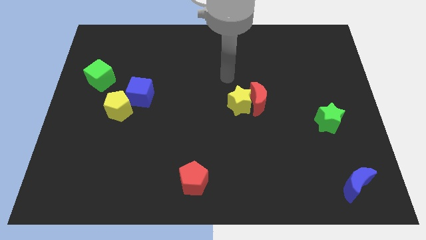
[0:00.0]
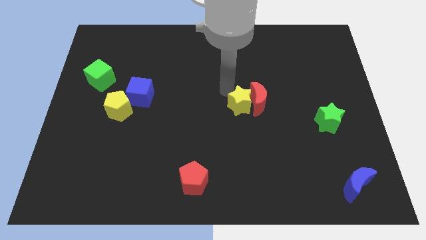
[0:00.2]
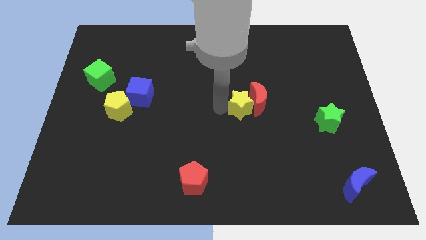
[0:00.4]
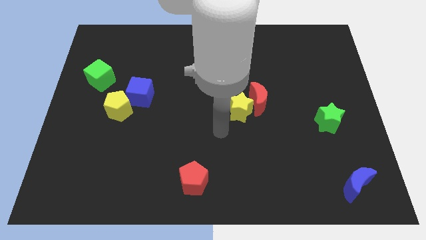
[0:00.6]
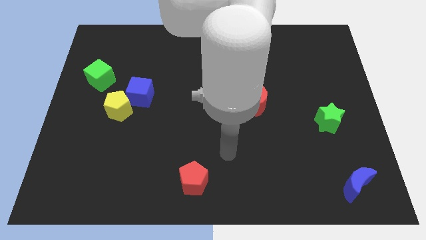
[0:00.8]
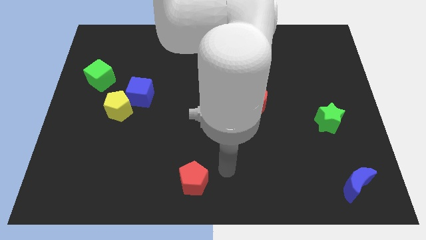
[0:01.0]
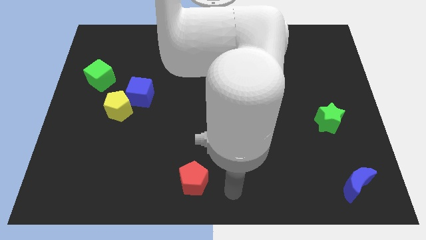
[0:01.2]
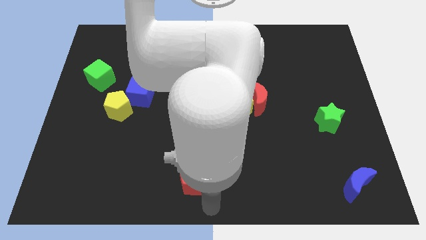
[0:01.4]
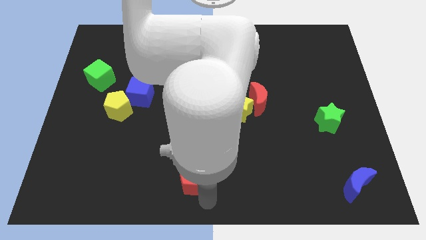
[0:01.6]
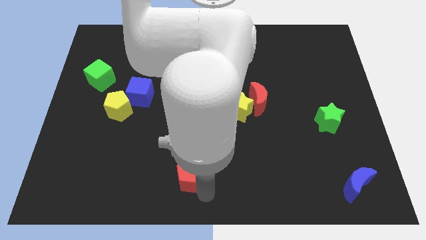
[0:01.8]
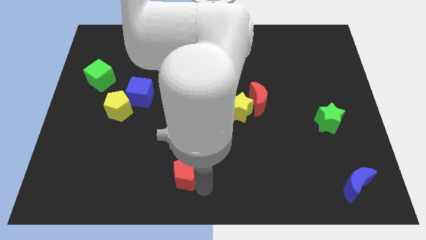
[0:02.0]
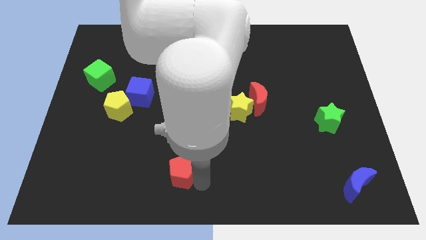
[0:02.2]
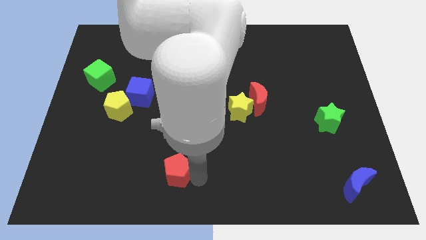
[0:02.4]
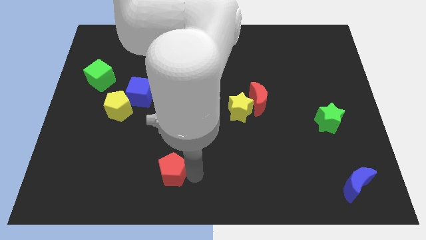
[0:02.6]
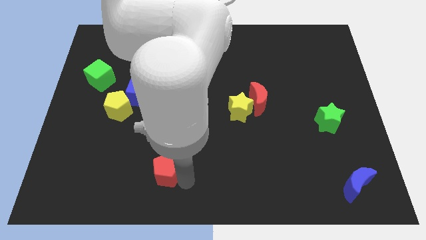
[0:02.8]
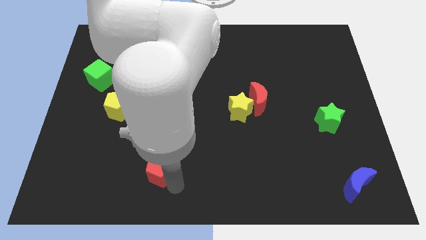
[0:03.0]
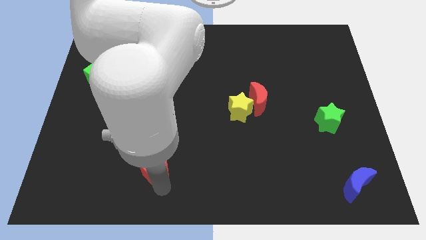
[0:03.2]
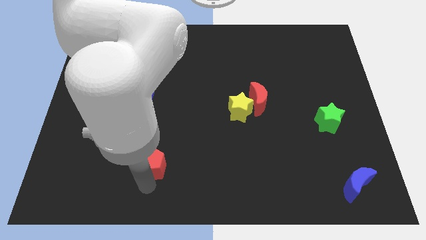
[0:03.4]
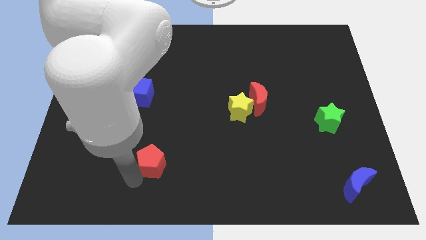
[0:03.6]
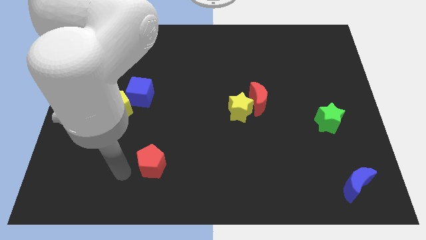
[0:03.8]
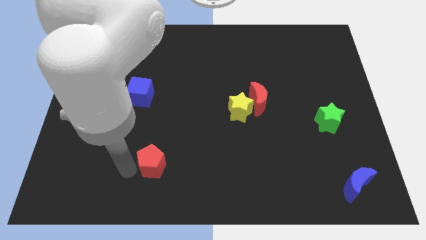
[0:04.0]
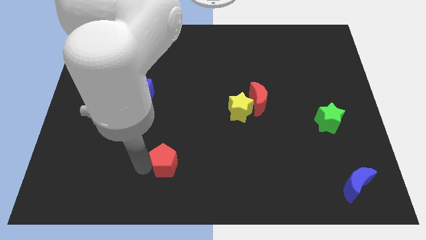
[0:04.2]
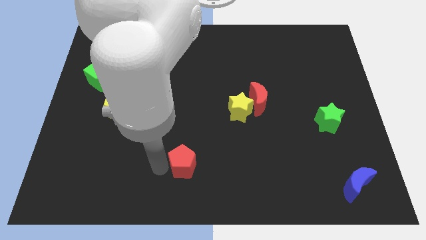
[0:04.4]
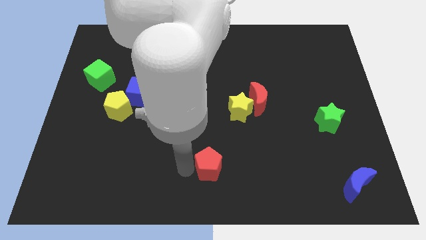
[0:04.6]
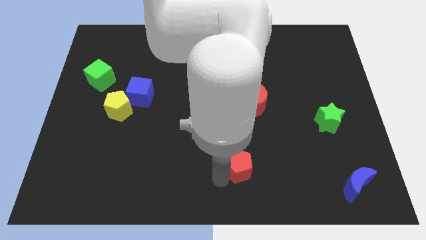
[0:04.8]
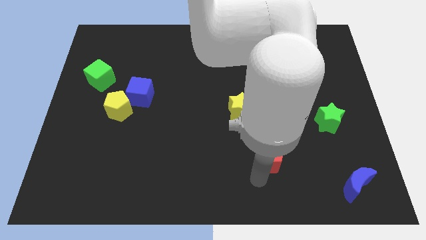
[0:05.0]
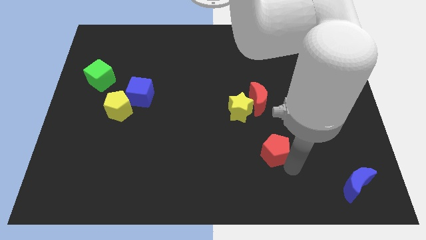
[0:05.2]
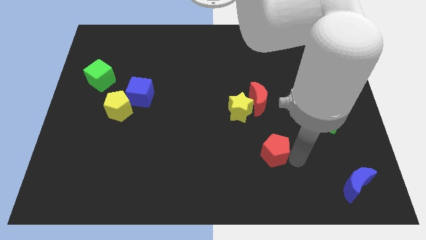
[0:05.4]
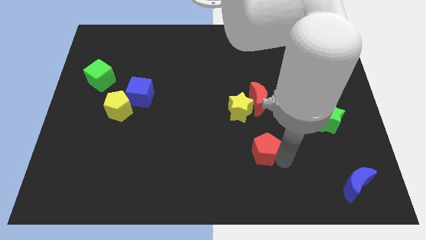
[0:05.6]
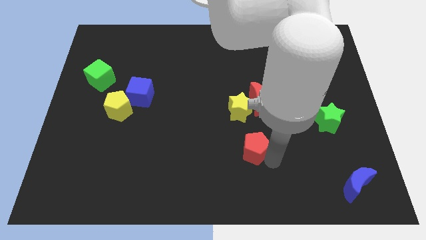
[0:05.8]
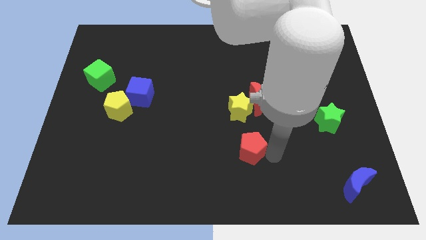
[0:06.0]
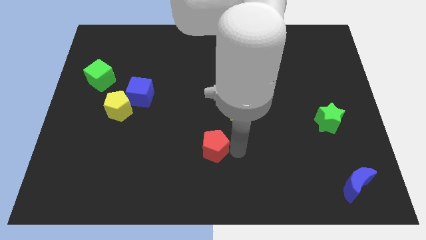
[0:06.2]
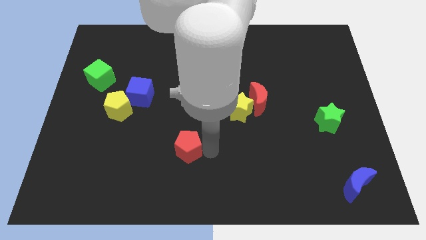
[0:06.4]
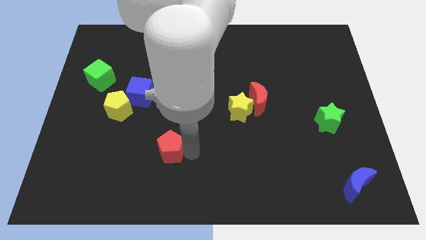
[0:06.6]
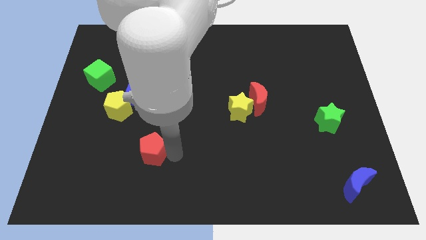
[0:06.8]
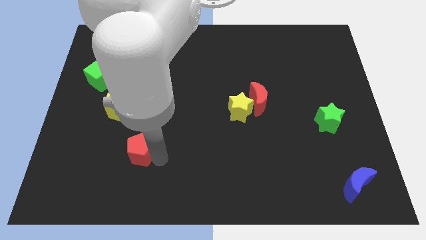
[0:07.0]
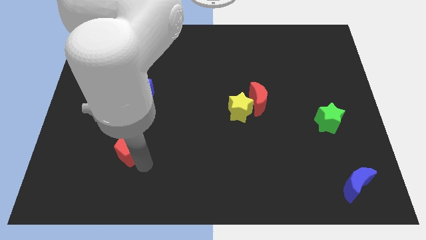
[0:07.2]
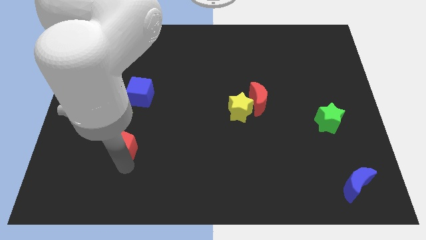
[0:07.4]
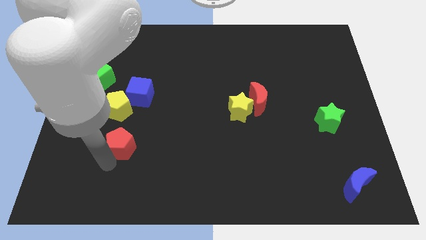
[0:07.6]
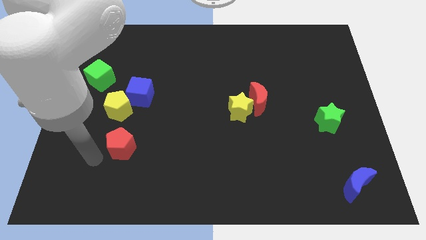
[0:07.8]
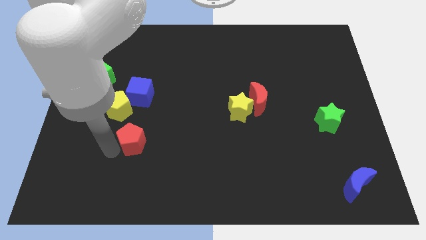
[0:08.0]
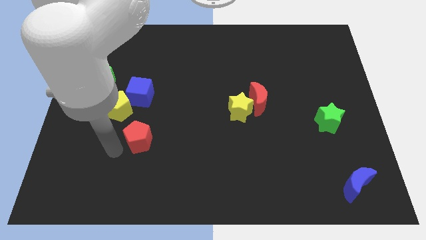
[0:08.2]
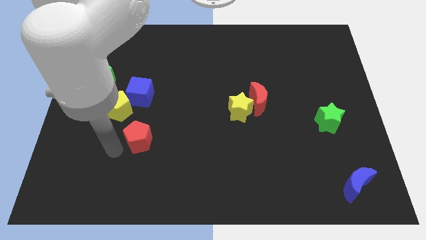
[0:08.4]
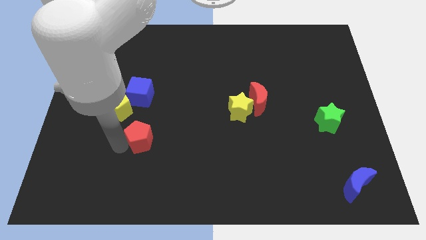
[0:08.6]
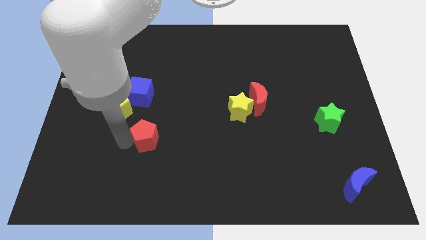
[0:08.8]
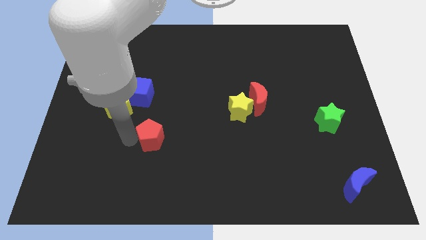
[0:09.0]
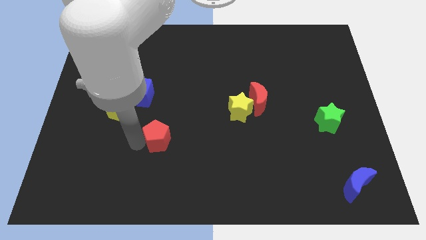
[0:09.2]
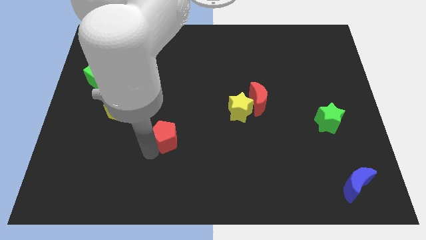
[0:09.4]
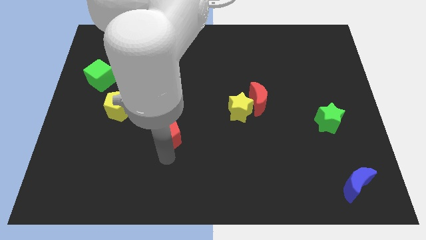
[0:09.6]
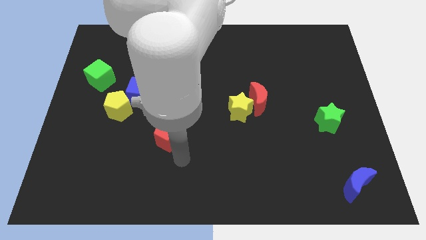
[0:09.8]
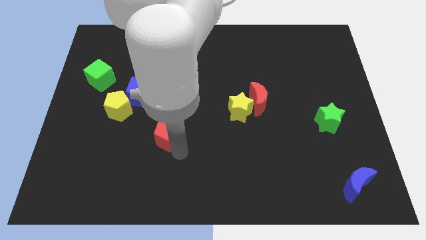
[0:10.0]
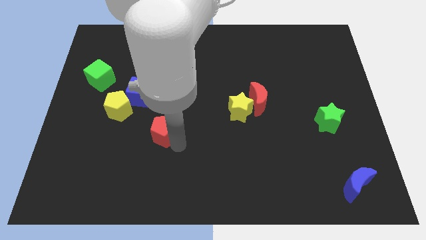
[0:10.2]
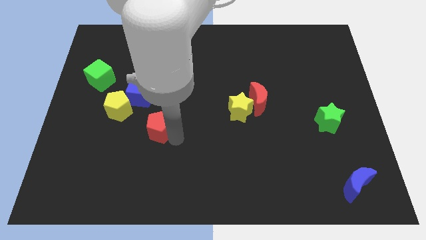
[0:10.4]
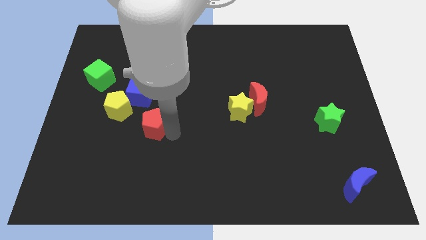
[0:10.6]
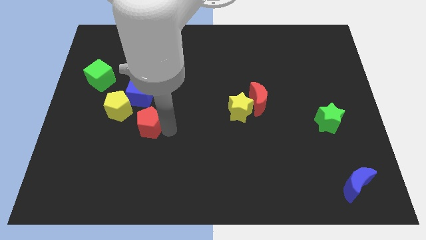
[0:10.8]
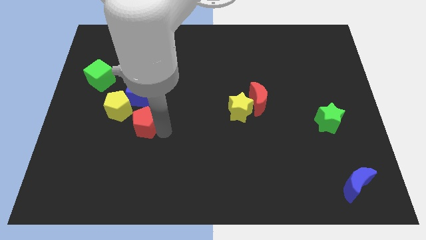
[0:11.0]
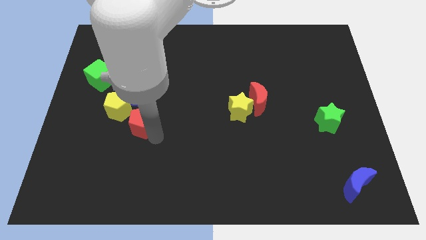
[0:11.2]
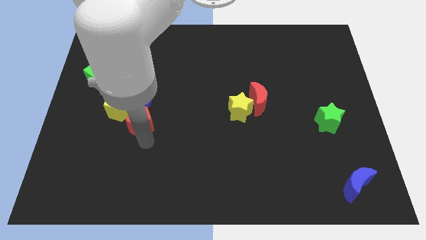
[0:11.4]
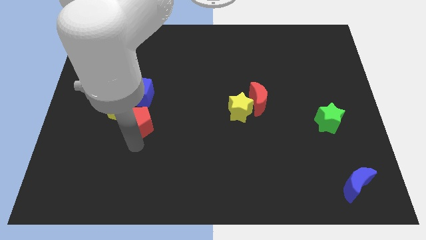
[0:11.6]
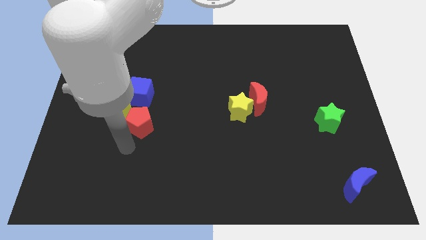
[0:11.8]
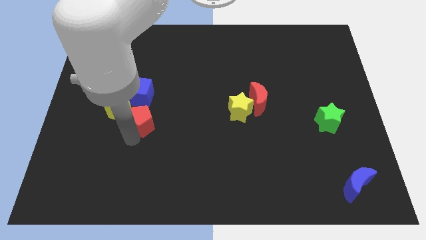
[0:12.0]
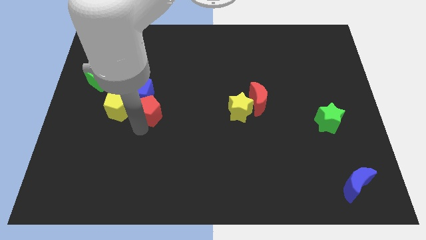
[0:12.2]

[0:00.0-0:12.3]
push the red pentagon next to the blue cube

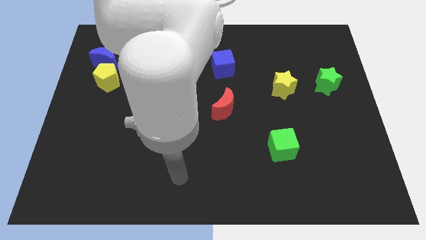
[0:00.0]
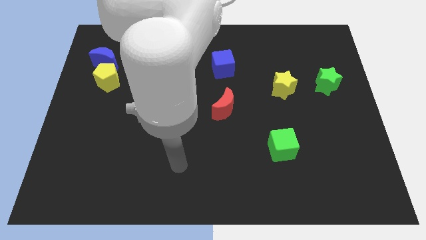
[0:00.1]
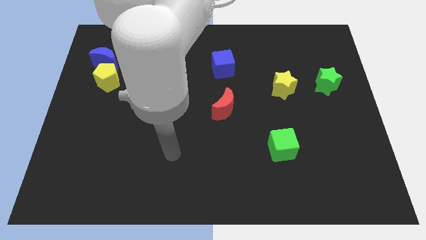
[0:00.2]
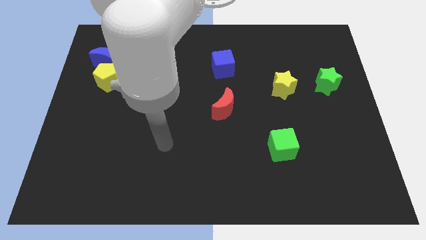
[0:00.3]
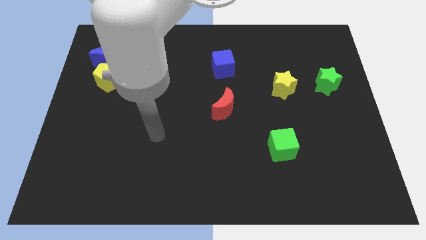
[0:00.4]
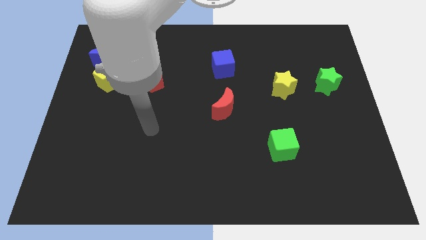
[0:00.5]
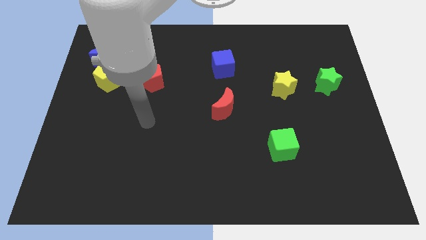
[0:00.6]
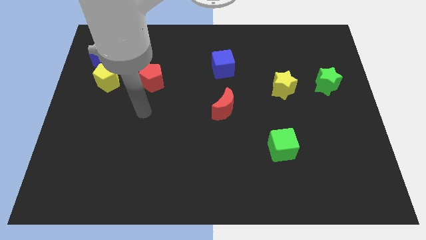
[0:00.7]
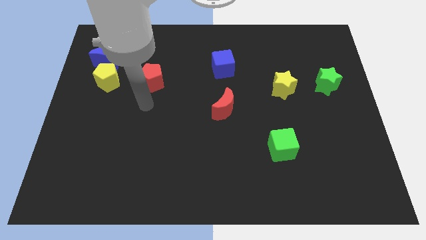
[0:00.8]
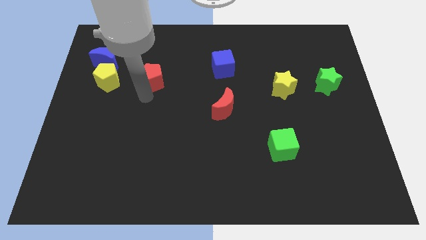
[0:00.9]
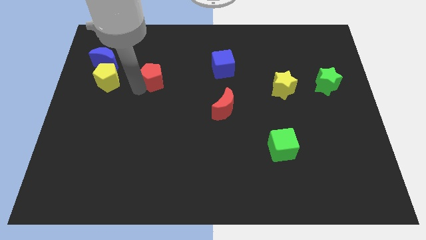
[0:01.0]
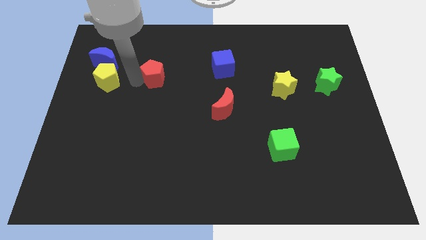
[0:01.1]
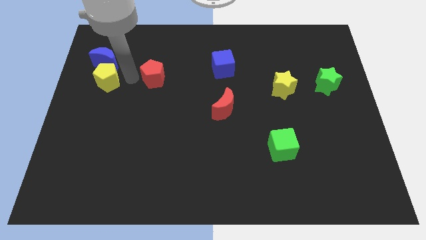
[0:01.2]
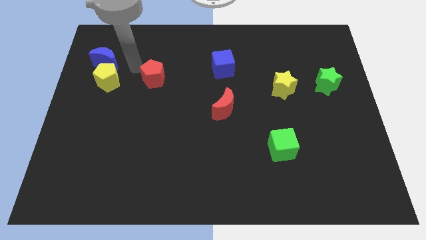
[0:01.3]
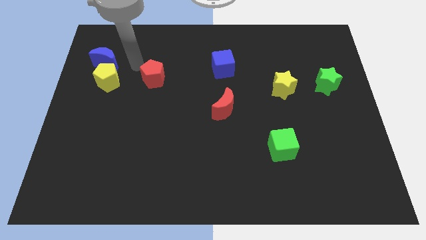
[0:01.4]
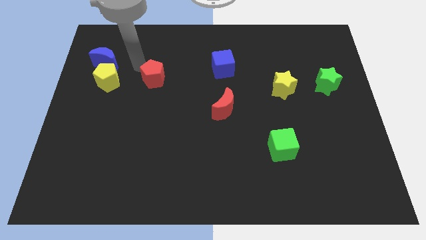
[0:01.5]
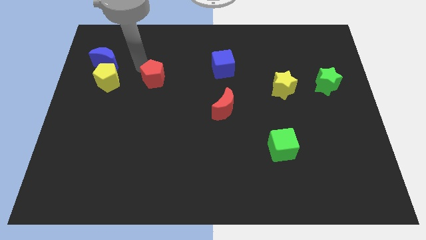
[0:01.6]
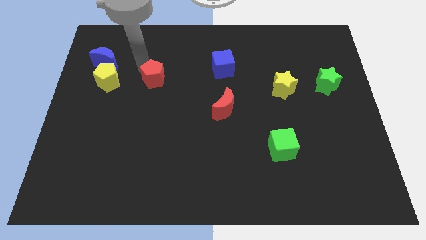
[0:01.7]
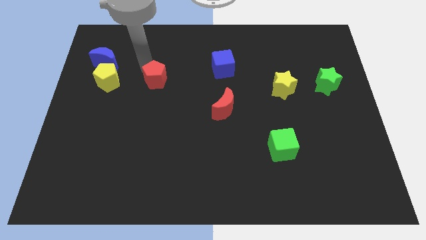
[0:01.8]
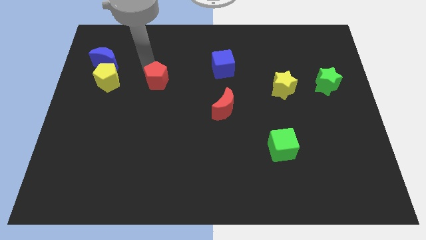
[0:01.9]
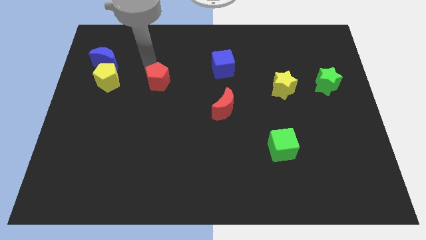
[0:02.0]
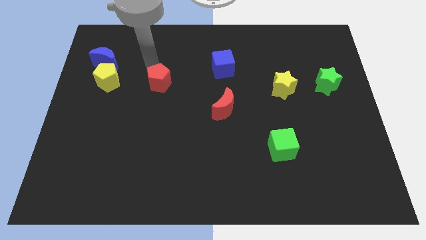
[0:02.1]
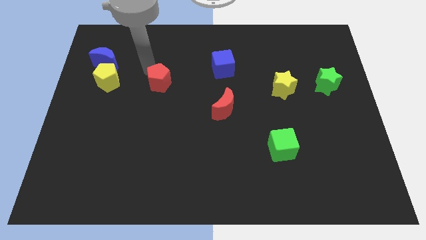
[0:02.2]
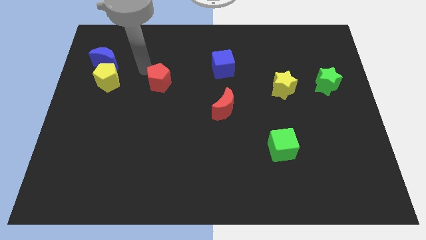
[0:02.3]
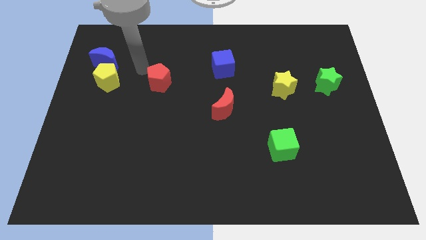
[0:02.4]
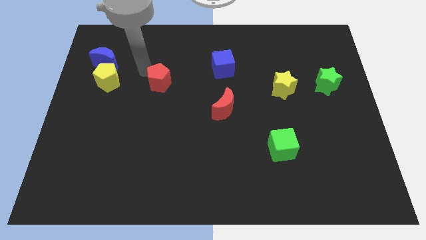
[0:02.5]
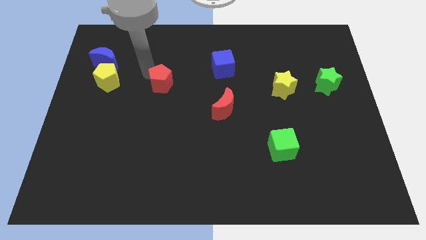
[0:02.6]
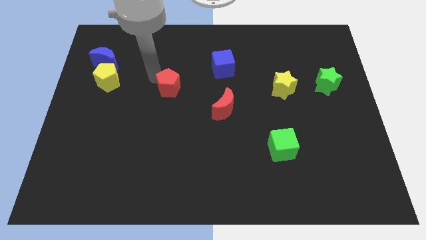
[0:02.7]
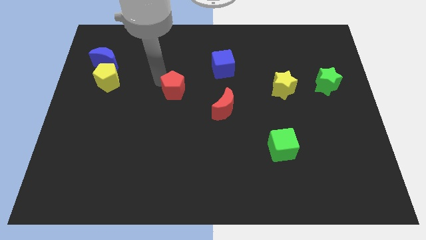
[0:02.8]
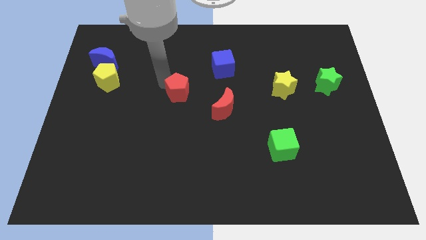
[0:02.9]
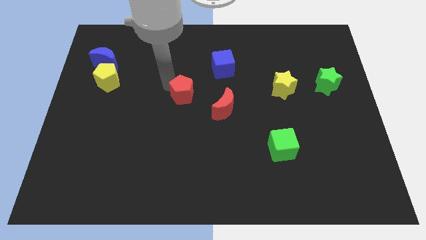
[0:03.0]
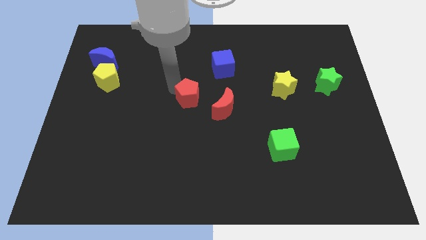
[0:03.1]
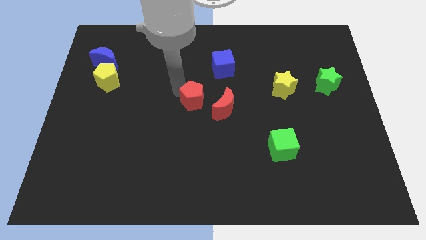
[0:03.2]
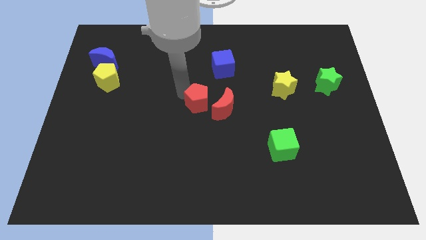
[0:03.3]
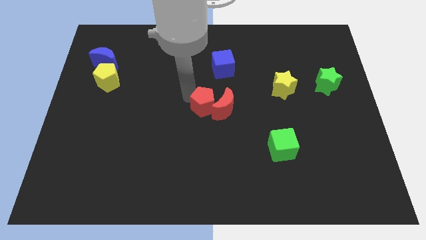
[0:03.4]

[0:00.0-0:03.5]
slide the red pentagon to the red moon
